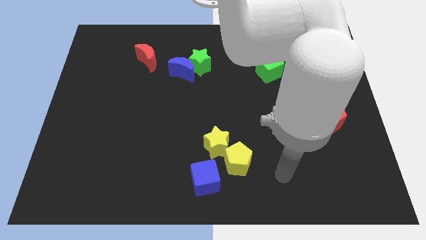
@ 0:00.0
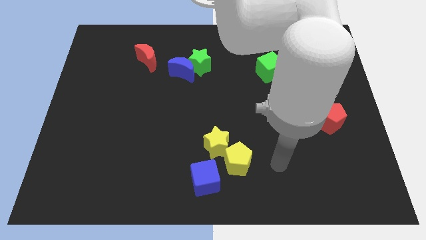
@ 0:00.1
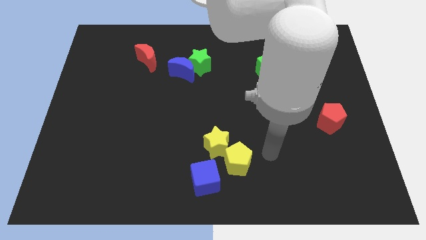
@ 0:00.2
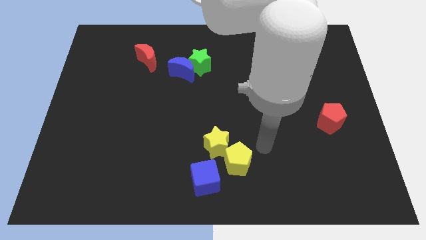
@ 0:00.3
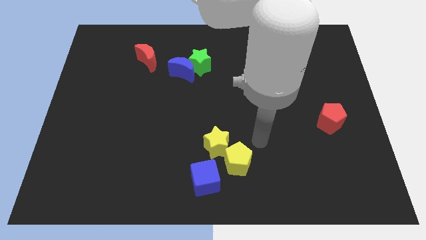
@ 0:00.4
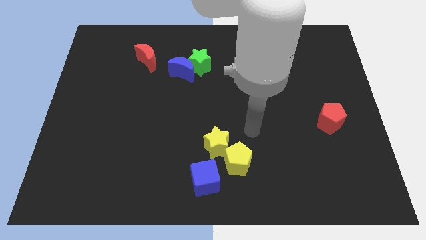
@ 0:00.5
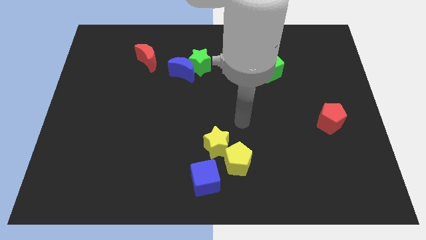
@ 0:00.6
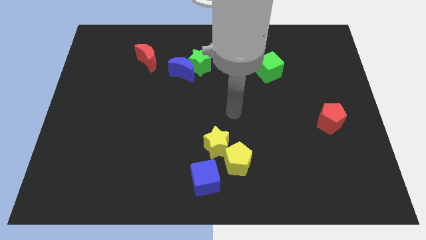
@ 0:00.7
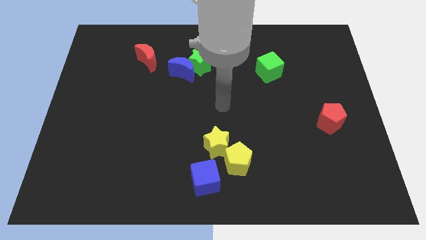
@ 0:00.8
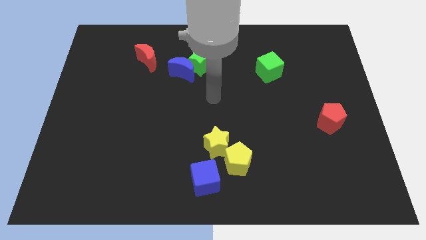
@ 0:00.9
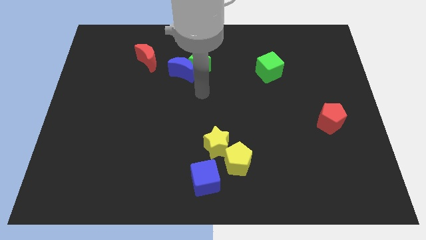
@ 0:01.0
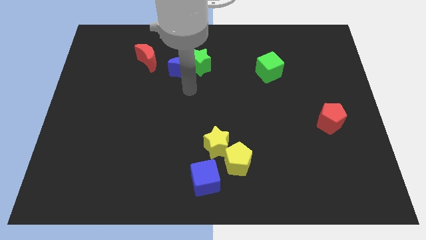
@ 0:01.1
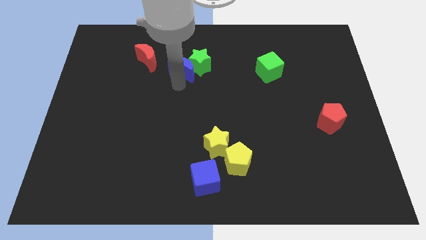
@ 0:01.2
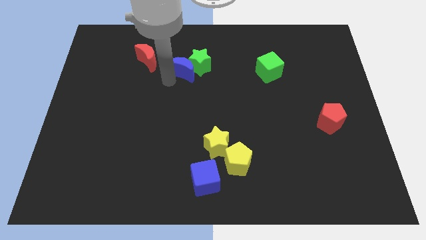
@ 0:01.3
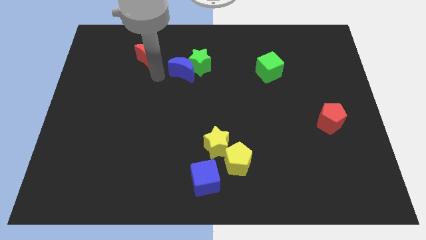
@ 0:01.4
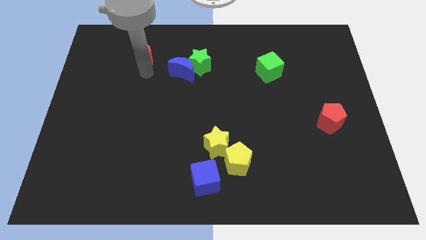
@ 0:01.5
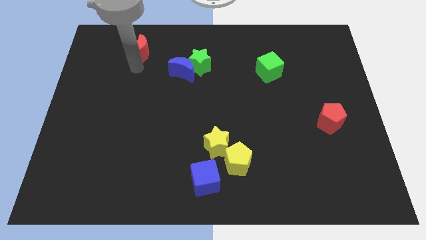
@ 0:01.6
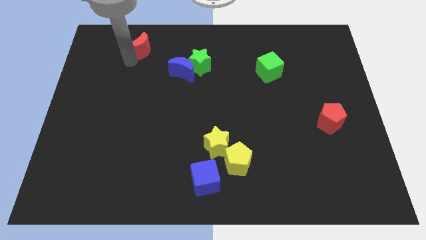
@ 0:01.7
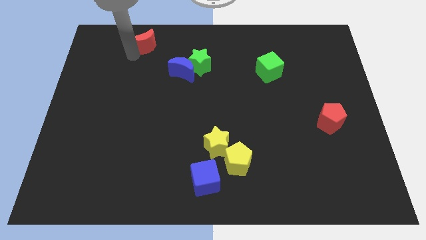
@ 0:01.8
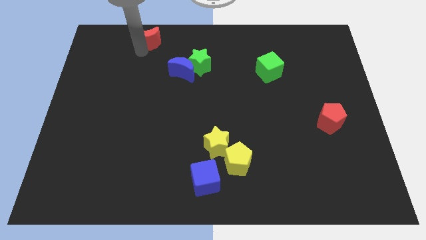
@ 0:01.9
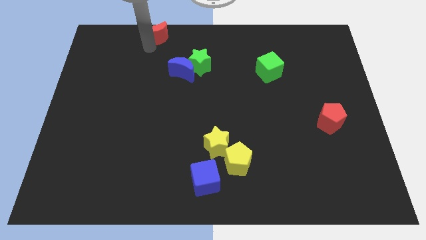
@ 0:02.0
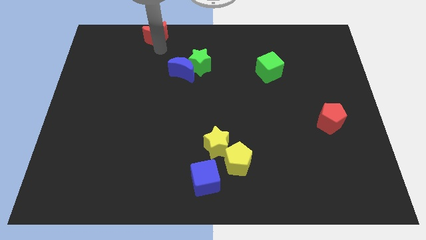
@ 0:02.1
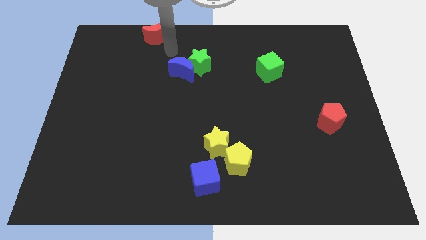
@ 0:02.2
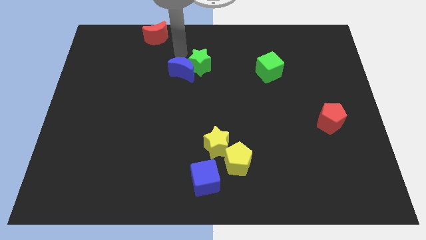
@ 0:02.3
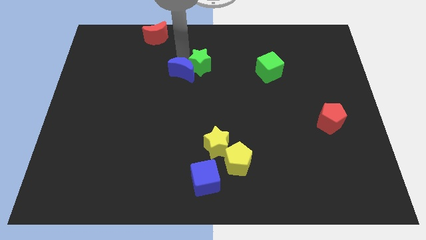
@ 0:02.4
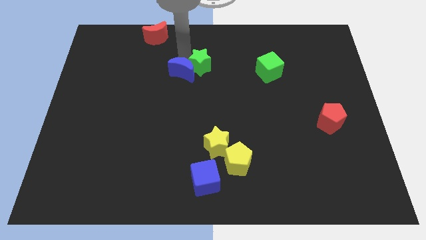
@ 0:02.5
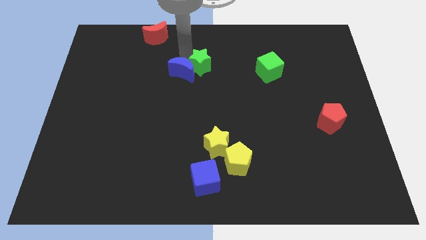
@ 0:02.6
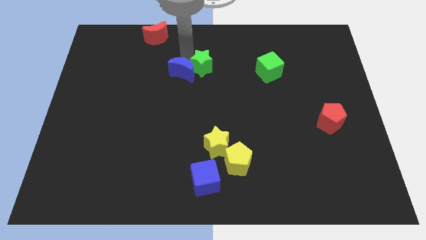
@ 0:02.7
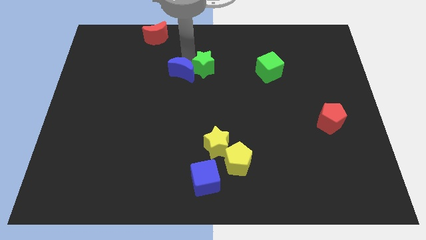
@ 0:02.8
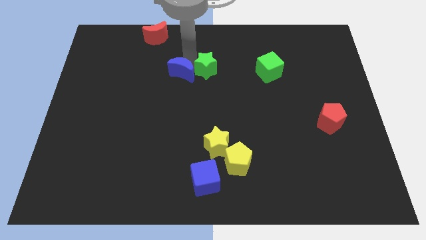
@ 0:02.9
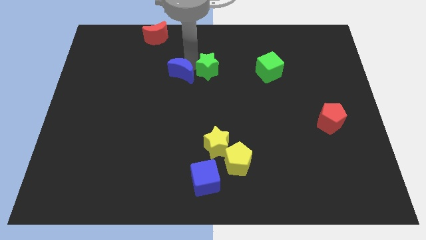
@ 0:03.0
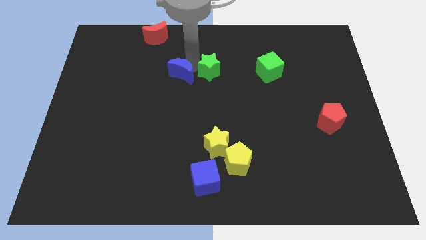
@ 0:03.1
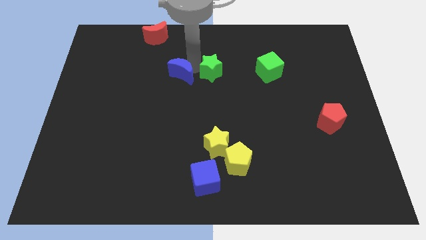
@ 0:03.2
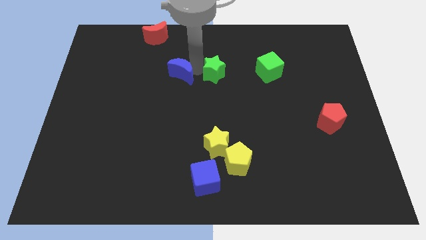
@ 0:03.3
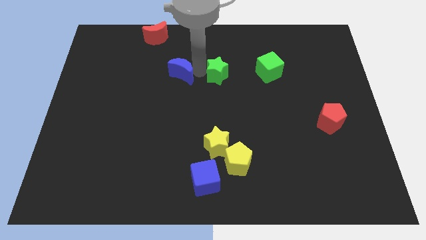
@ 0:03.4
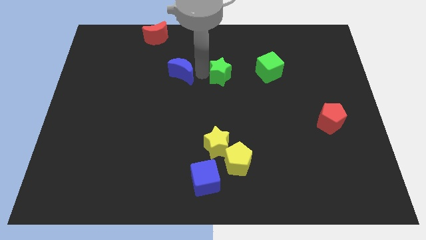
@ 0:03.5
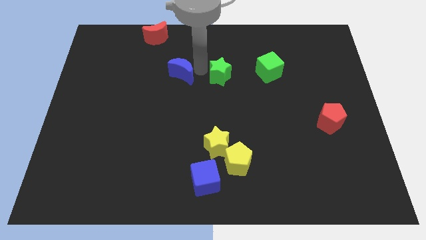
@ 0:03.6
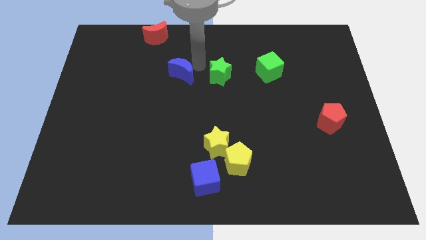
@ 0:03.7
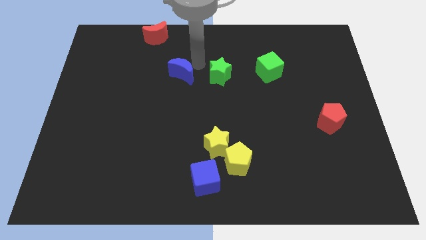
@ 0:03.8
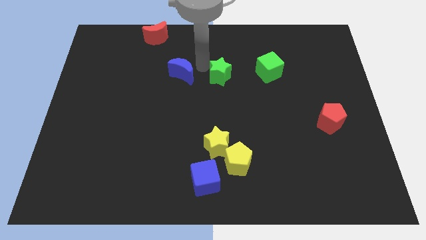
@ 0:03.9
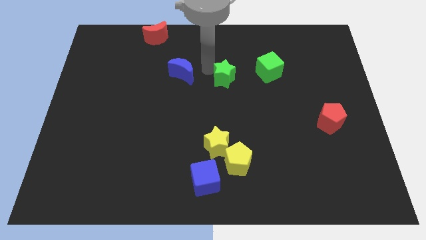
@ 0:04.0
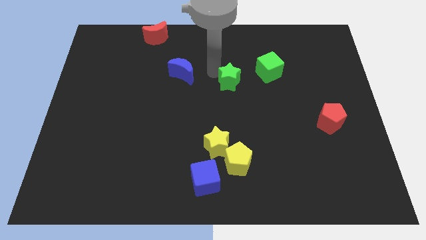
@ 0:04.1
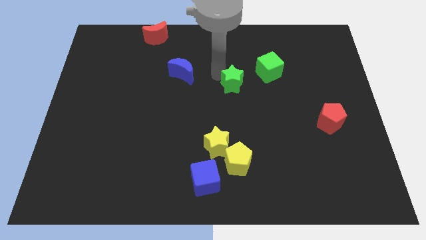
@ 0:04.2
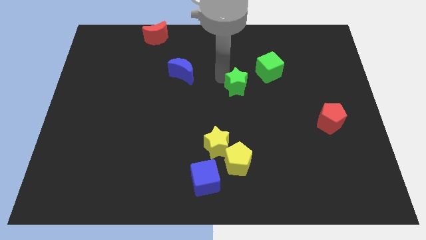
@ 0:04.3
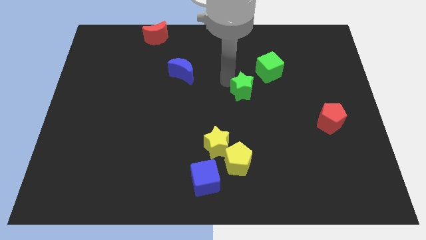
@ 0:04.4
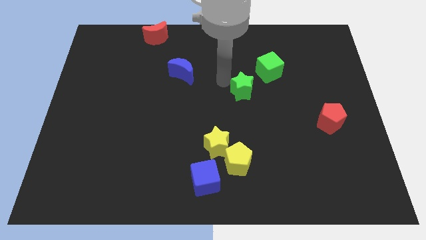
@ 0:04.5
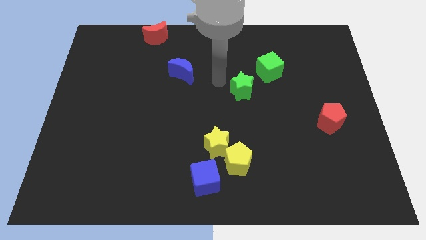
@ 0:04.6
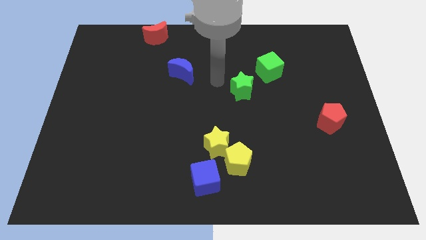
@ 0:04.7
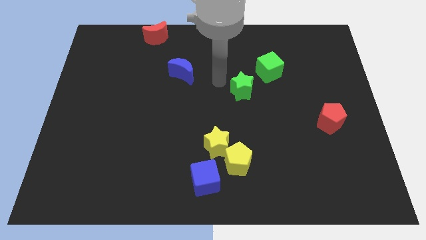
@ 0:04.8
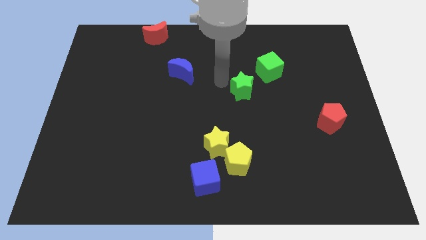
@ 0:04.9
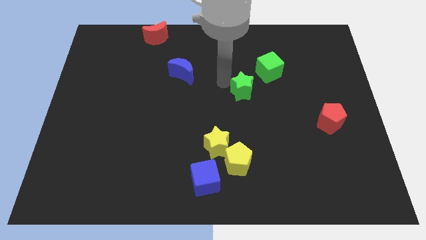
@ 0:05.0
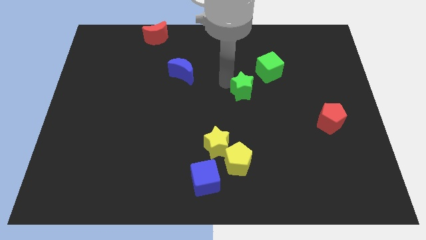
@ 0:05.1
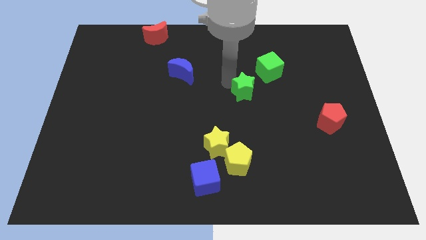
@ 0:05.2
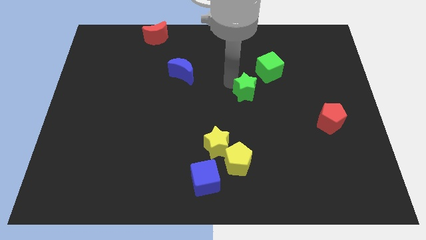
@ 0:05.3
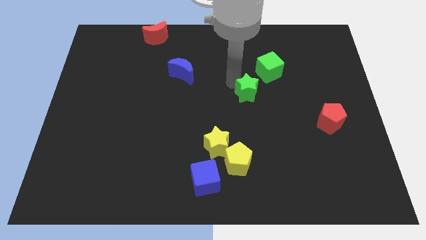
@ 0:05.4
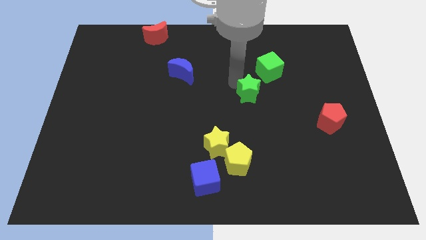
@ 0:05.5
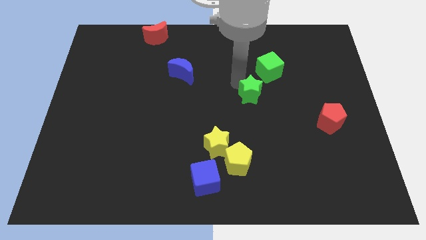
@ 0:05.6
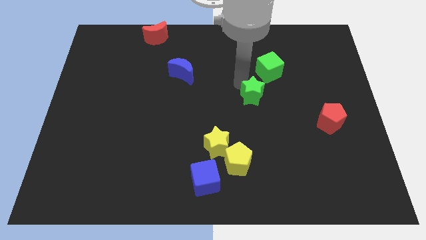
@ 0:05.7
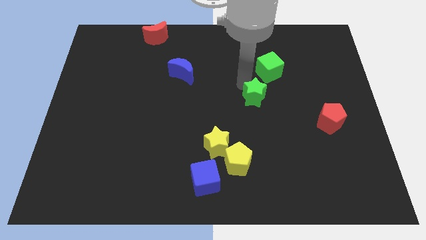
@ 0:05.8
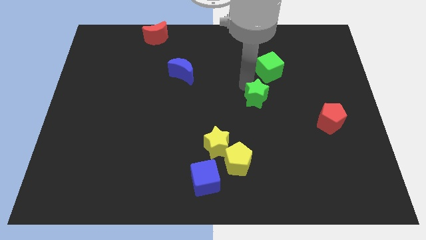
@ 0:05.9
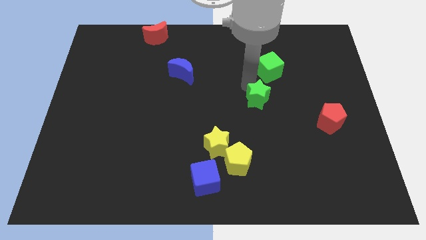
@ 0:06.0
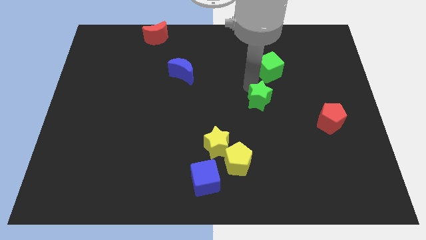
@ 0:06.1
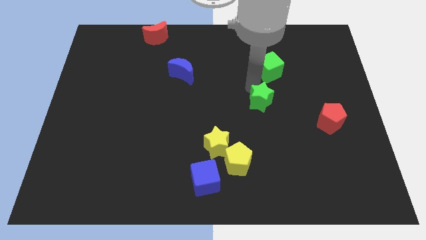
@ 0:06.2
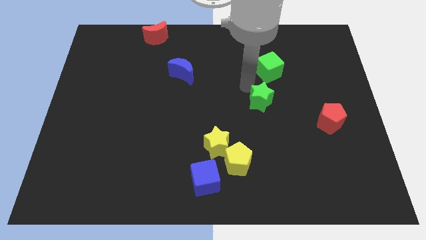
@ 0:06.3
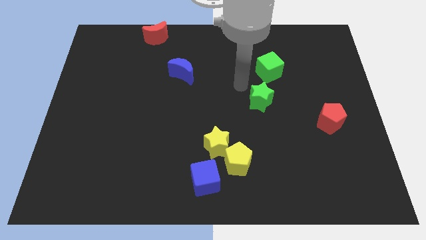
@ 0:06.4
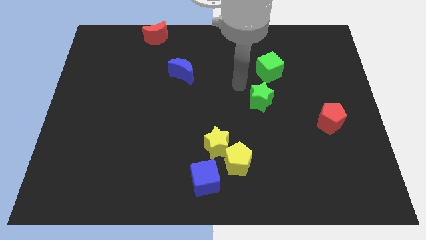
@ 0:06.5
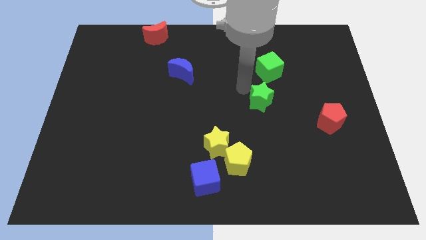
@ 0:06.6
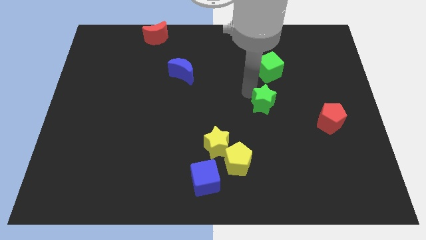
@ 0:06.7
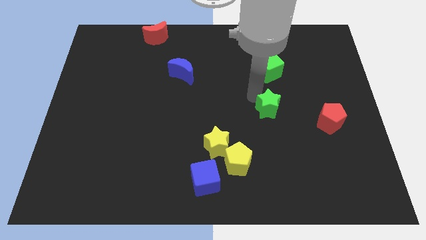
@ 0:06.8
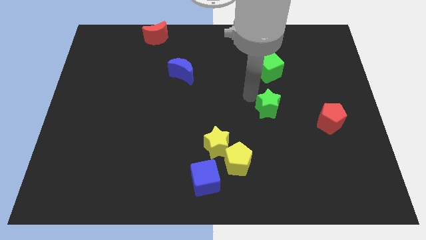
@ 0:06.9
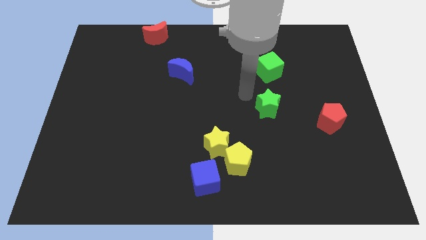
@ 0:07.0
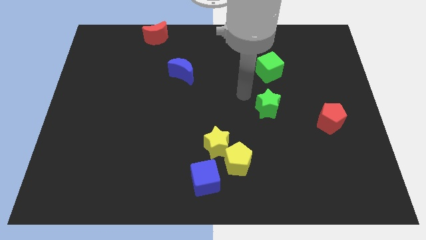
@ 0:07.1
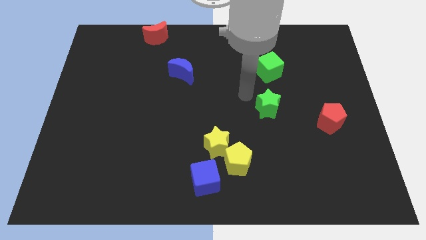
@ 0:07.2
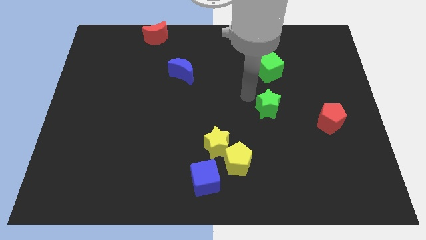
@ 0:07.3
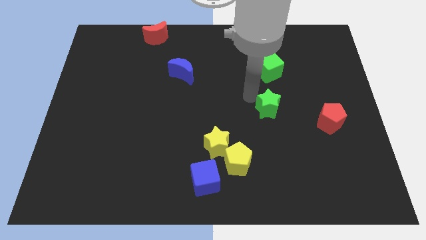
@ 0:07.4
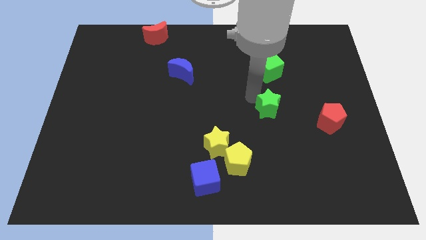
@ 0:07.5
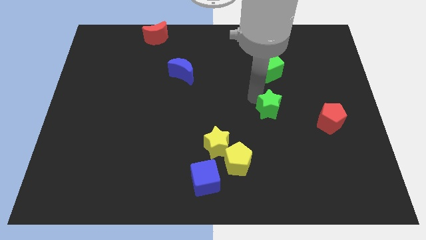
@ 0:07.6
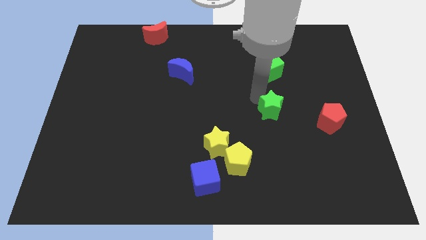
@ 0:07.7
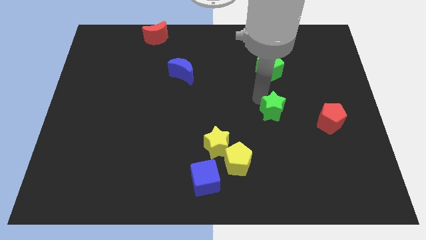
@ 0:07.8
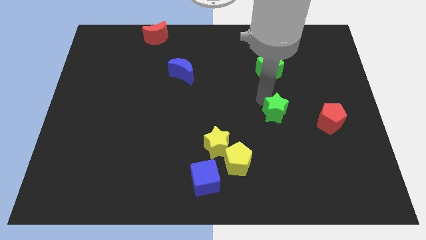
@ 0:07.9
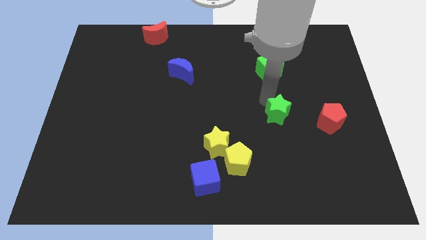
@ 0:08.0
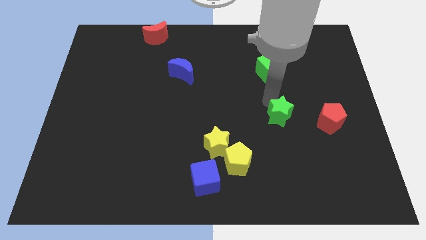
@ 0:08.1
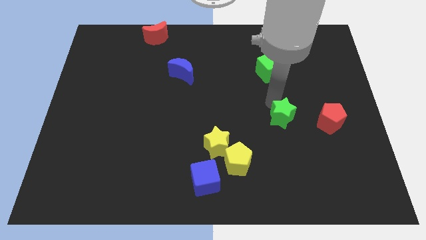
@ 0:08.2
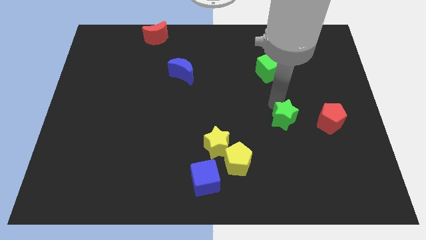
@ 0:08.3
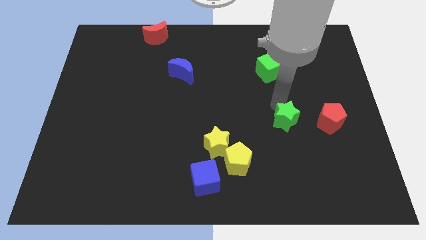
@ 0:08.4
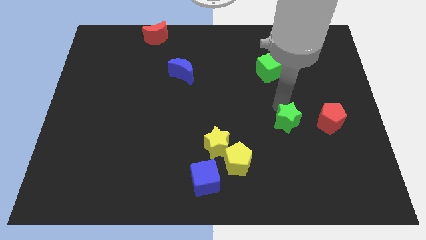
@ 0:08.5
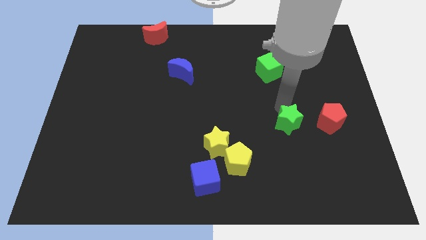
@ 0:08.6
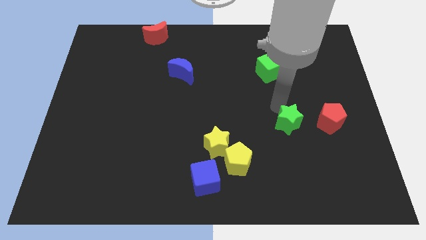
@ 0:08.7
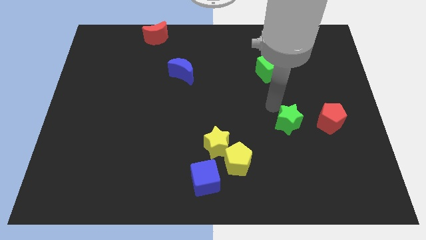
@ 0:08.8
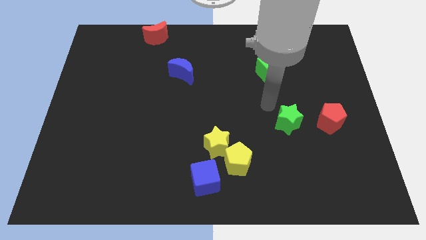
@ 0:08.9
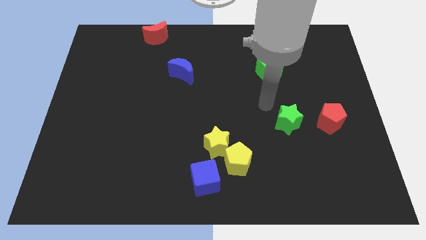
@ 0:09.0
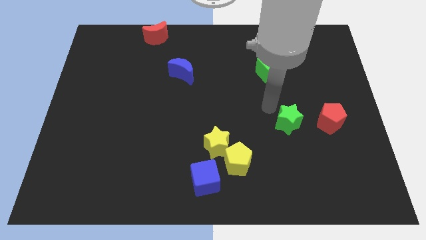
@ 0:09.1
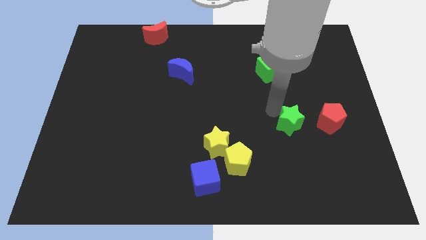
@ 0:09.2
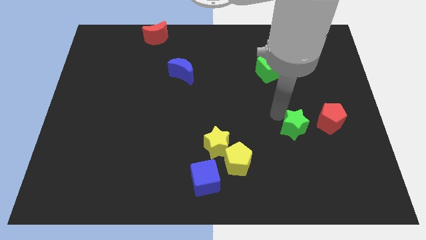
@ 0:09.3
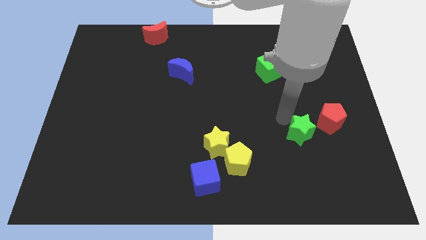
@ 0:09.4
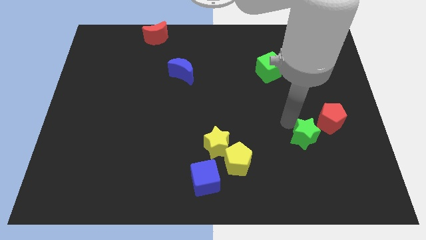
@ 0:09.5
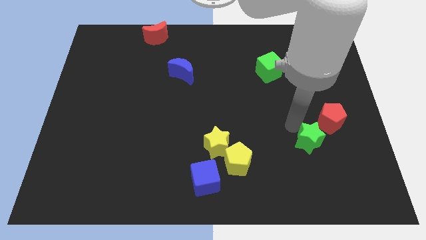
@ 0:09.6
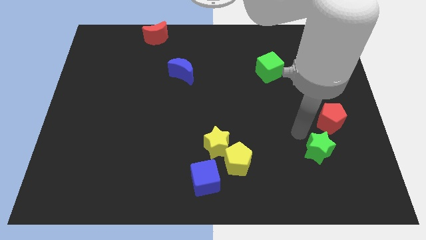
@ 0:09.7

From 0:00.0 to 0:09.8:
put the green star below the red pentagon
